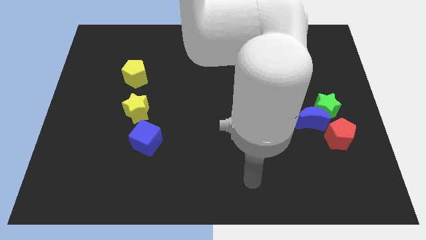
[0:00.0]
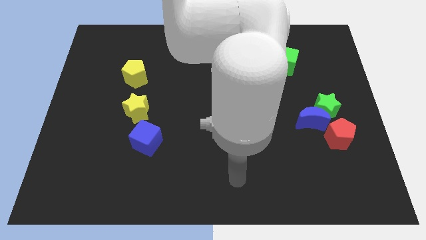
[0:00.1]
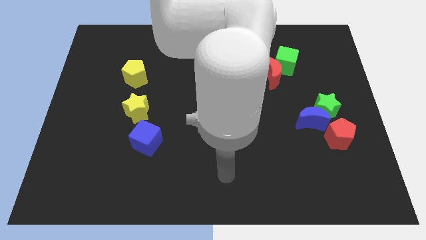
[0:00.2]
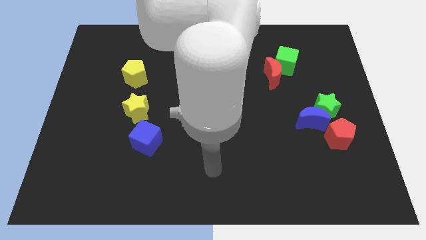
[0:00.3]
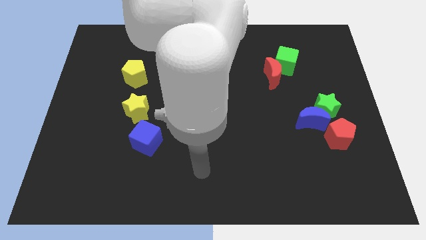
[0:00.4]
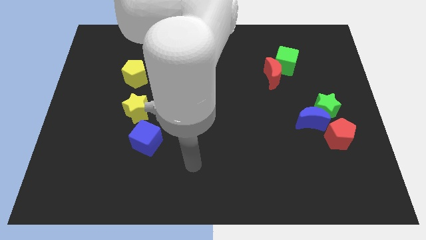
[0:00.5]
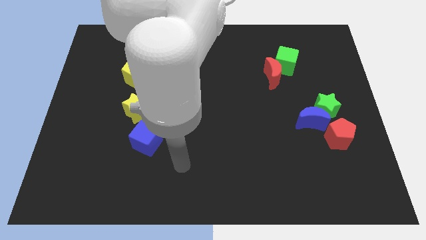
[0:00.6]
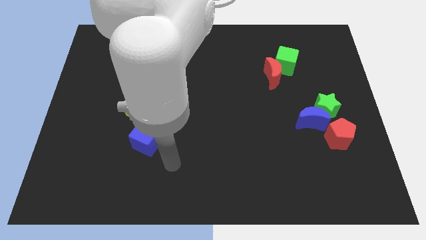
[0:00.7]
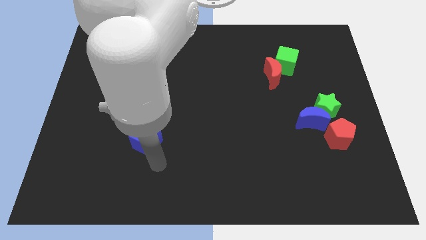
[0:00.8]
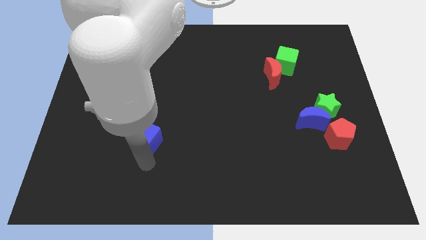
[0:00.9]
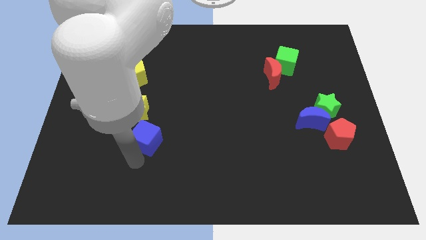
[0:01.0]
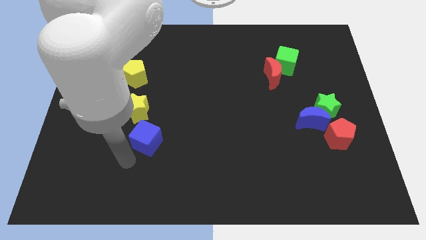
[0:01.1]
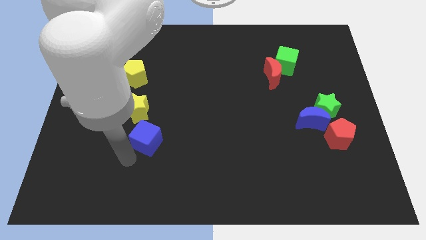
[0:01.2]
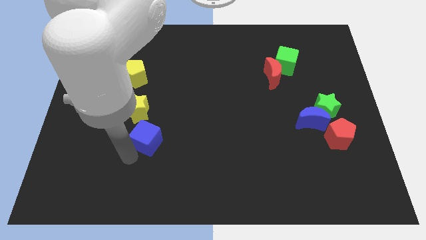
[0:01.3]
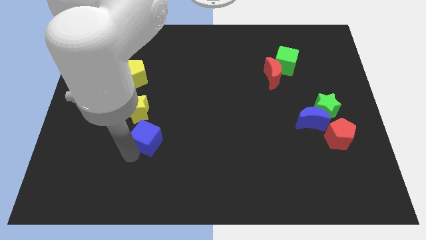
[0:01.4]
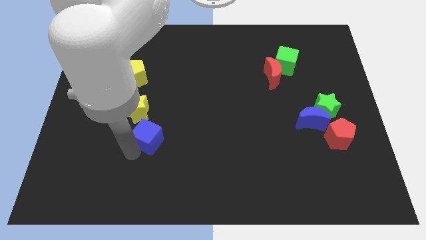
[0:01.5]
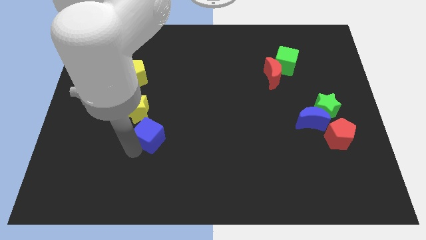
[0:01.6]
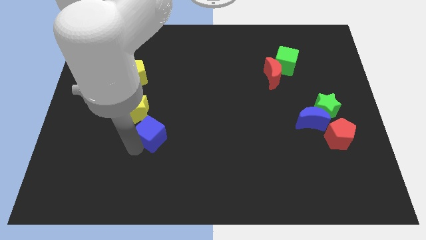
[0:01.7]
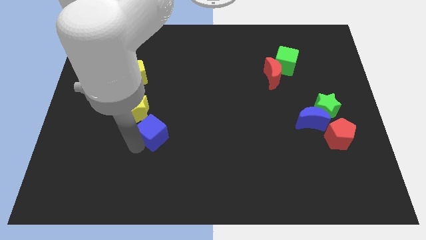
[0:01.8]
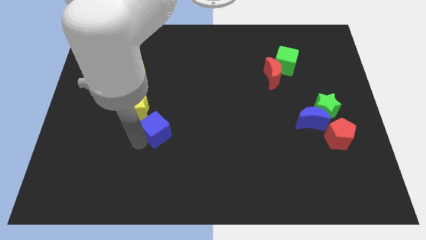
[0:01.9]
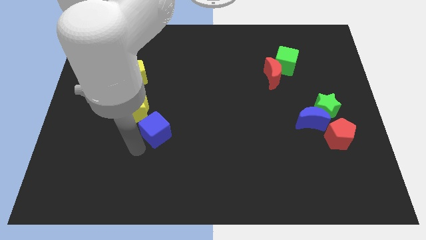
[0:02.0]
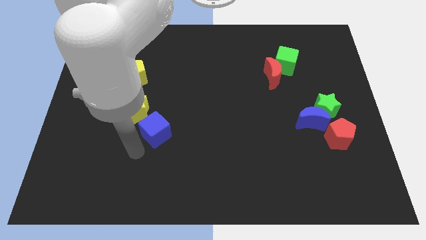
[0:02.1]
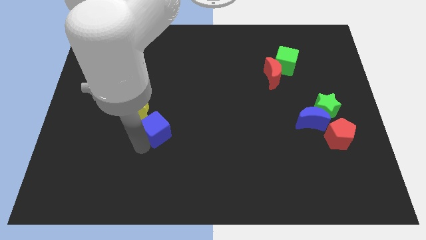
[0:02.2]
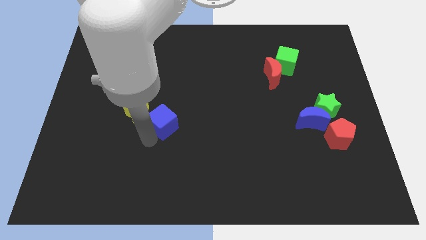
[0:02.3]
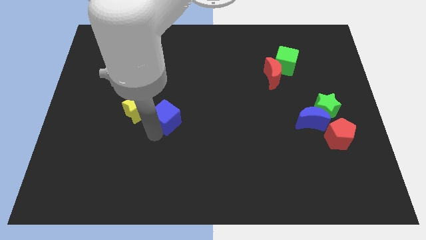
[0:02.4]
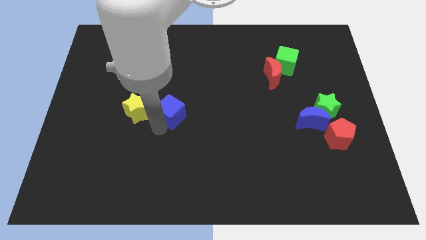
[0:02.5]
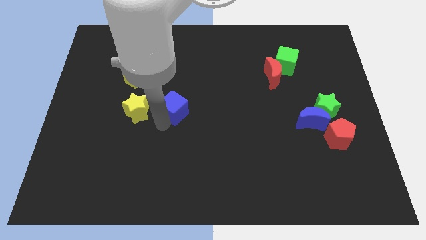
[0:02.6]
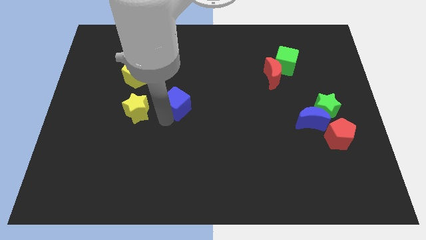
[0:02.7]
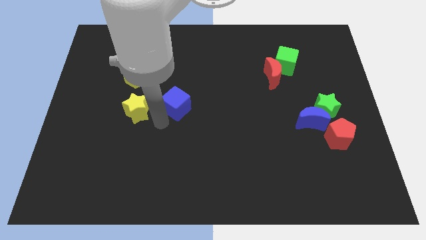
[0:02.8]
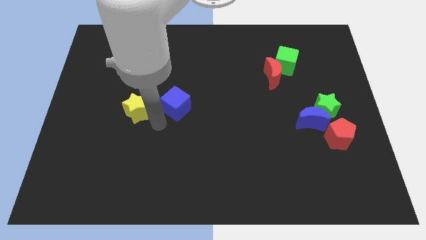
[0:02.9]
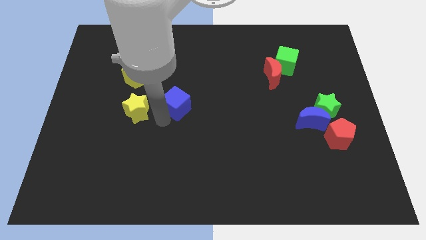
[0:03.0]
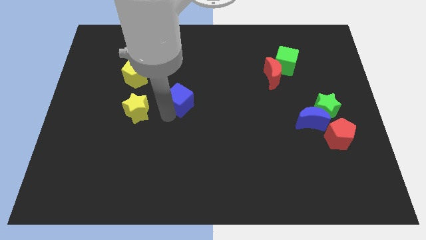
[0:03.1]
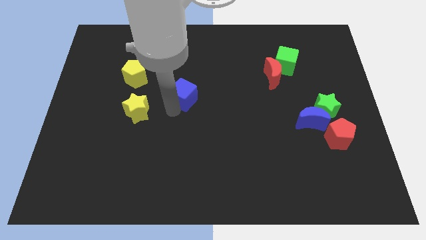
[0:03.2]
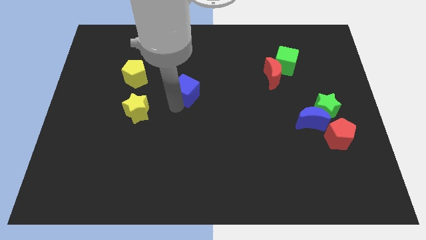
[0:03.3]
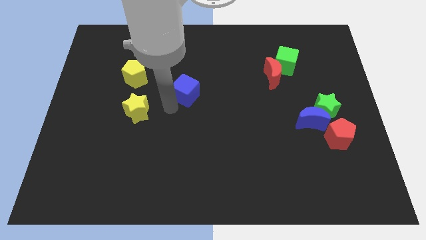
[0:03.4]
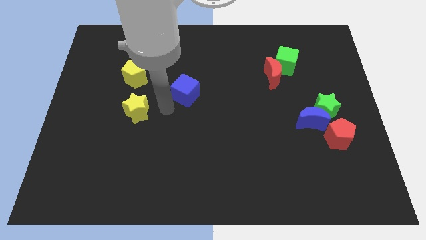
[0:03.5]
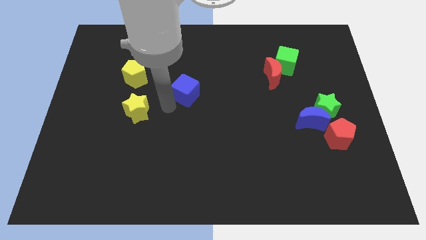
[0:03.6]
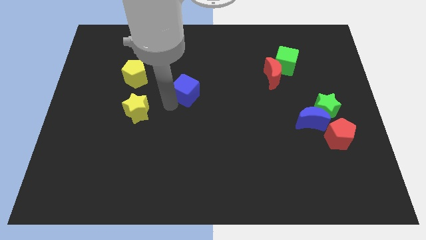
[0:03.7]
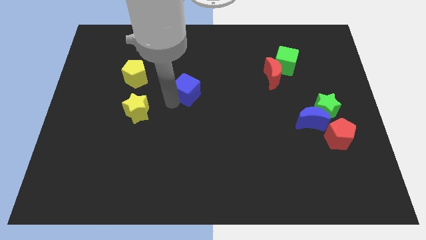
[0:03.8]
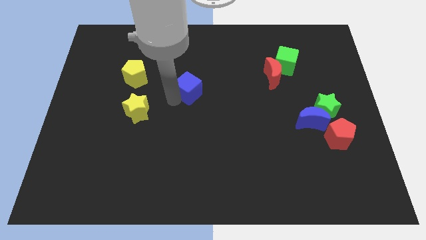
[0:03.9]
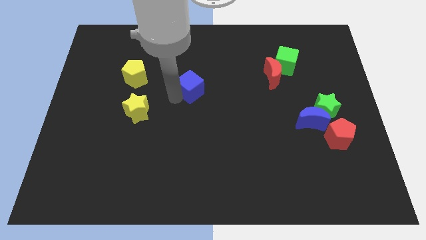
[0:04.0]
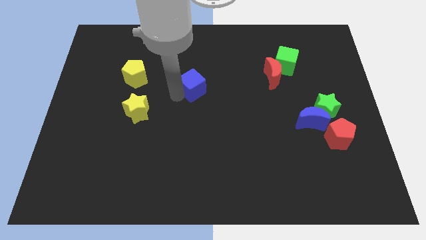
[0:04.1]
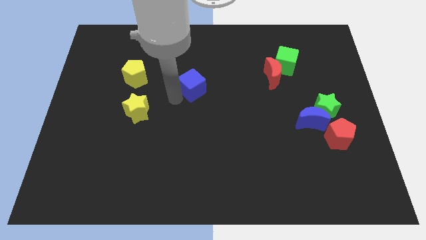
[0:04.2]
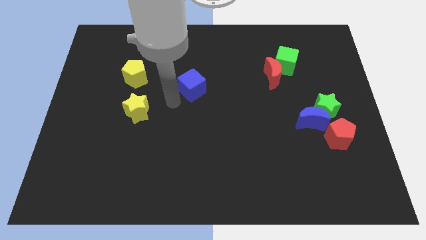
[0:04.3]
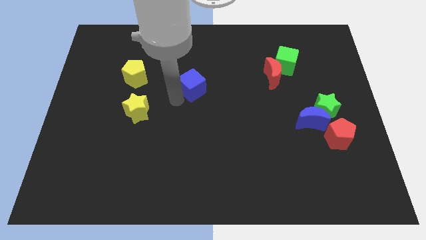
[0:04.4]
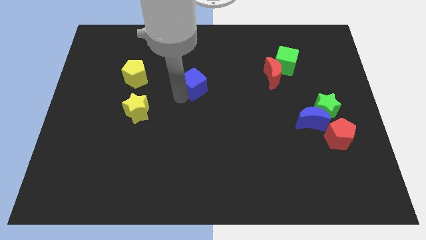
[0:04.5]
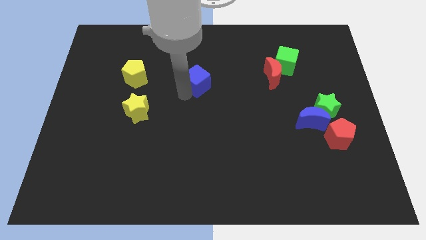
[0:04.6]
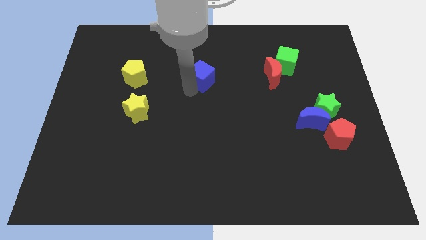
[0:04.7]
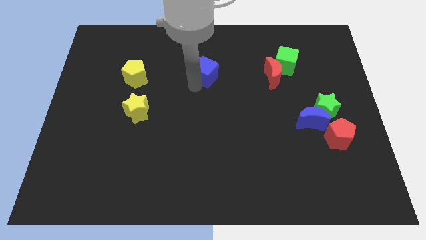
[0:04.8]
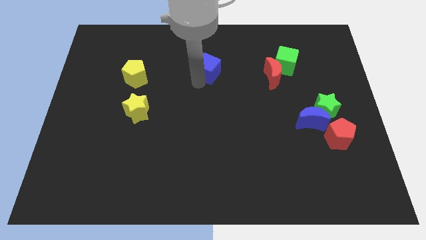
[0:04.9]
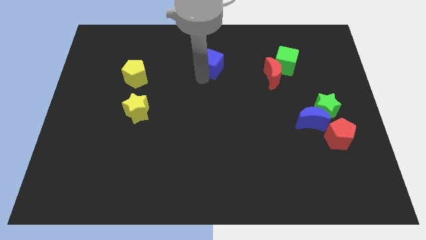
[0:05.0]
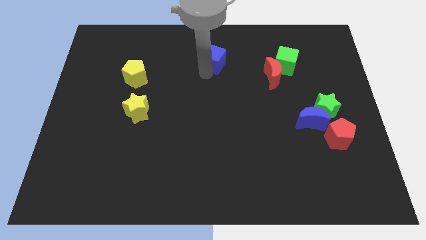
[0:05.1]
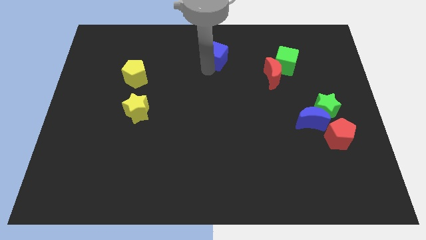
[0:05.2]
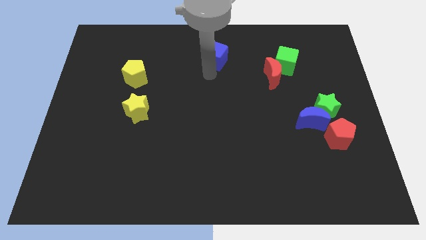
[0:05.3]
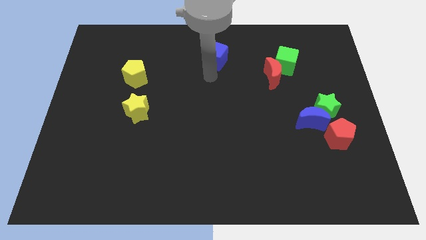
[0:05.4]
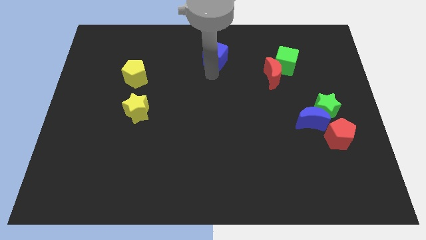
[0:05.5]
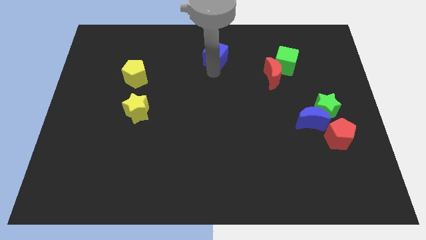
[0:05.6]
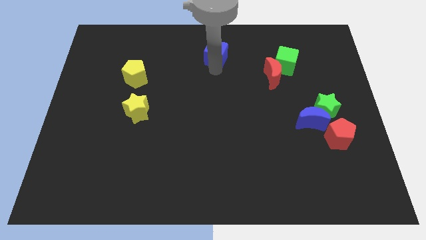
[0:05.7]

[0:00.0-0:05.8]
move the blue cube to the top
